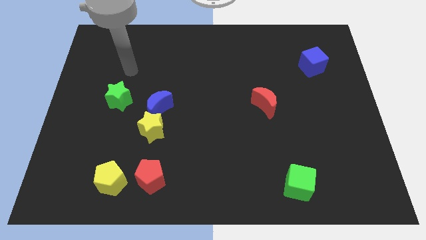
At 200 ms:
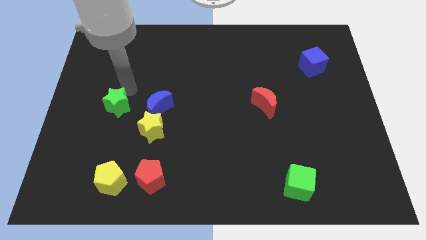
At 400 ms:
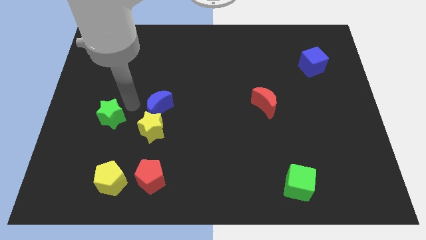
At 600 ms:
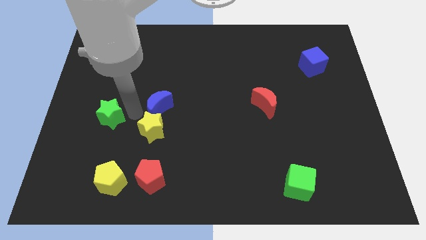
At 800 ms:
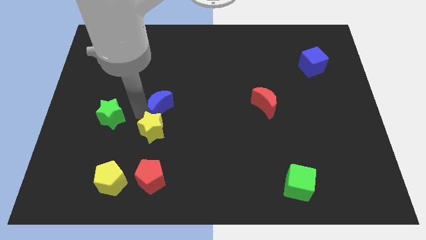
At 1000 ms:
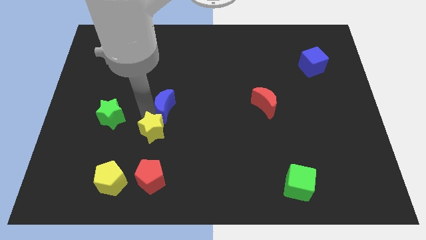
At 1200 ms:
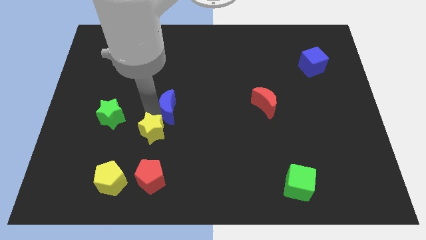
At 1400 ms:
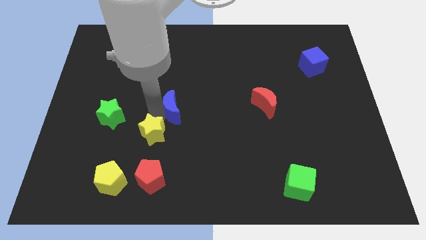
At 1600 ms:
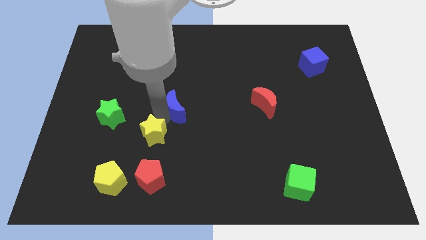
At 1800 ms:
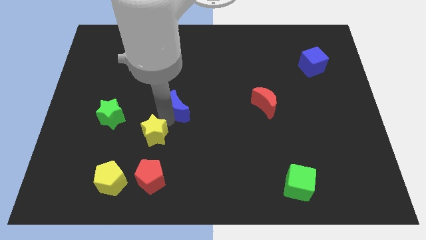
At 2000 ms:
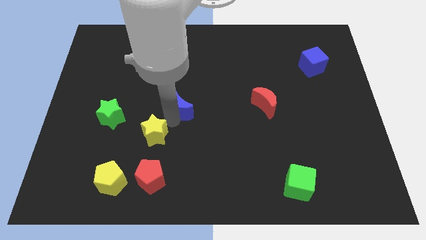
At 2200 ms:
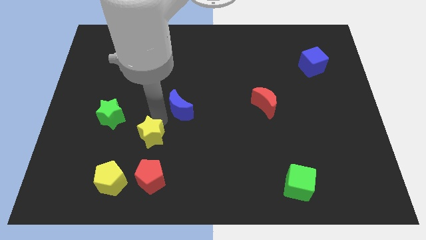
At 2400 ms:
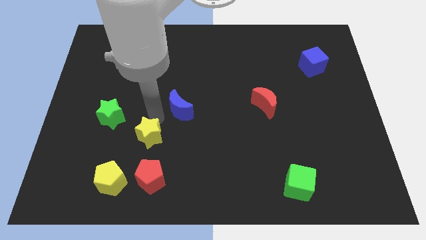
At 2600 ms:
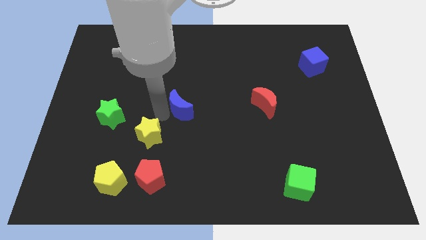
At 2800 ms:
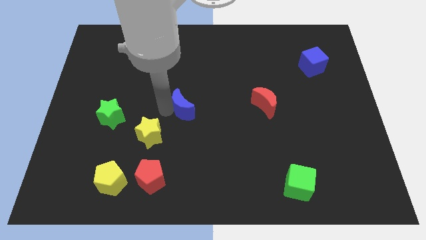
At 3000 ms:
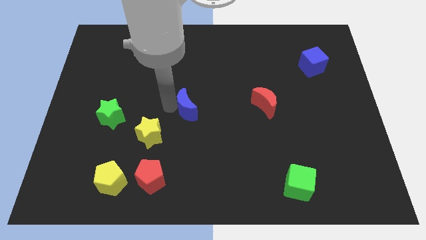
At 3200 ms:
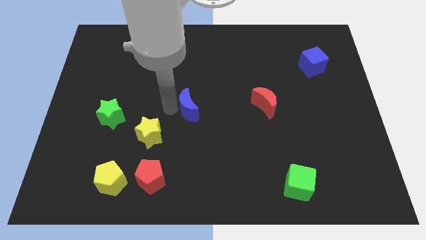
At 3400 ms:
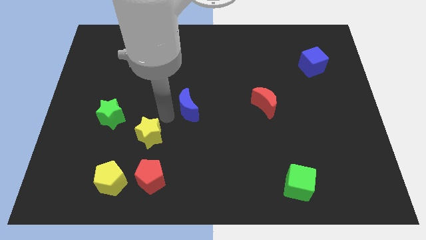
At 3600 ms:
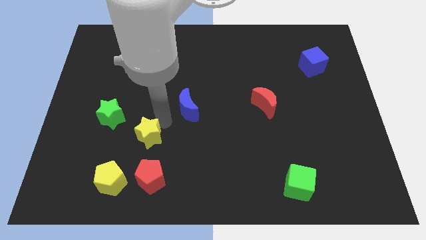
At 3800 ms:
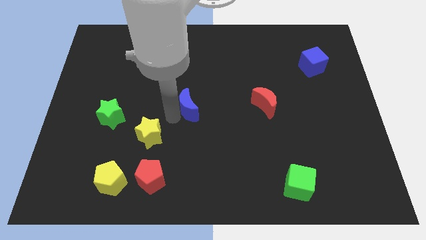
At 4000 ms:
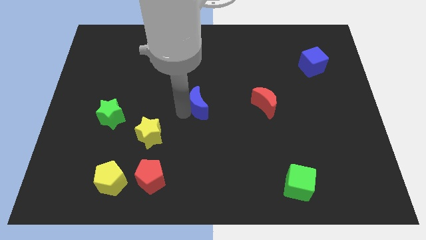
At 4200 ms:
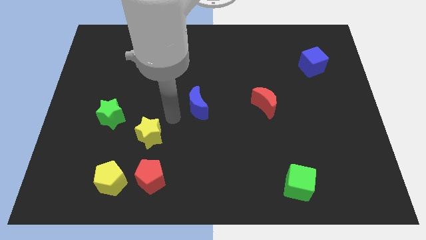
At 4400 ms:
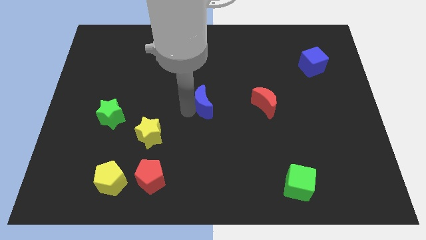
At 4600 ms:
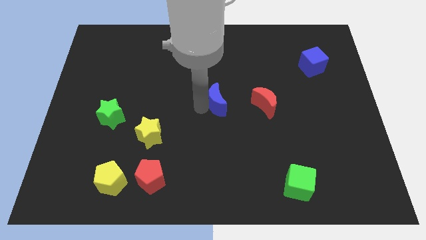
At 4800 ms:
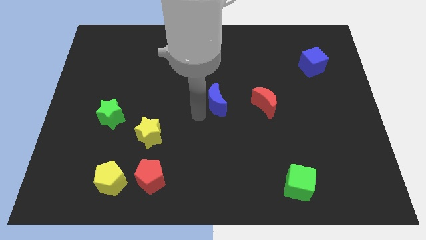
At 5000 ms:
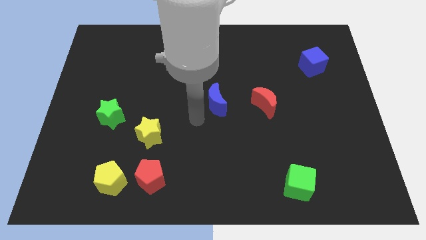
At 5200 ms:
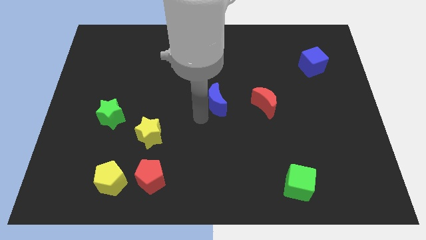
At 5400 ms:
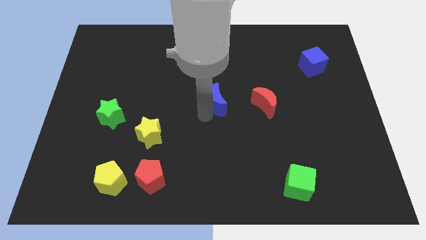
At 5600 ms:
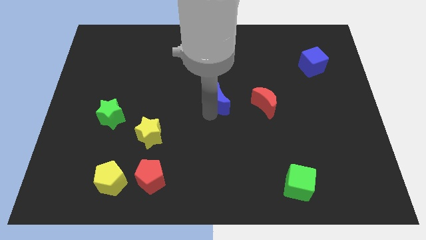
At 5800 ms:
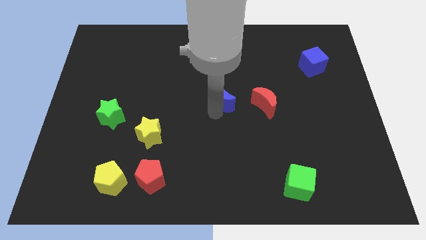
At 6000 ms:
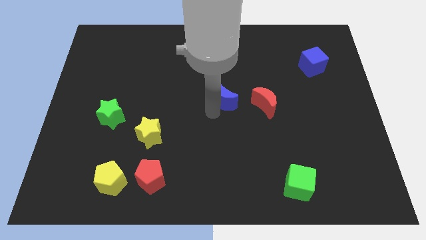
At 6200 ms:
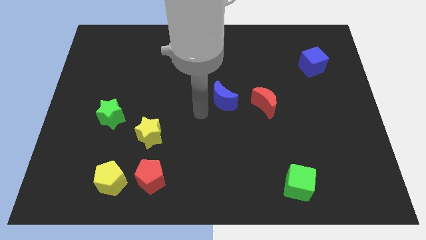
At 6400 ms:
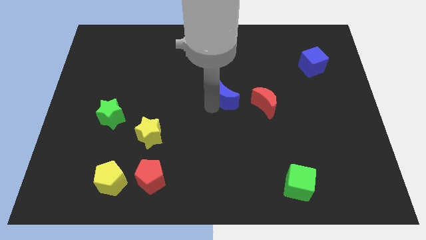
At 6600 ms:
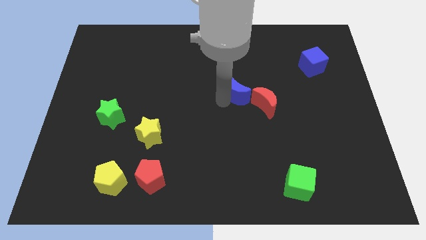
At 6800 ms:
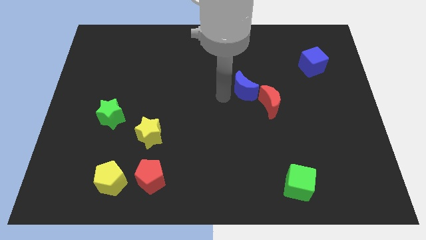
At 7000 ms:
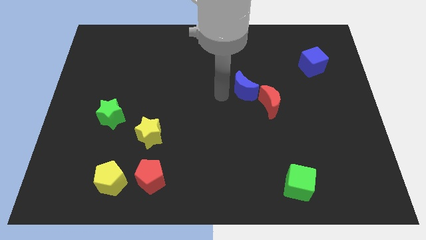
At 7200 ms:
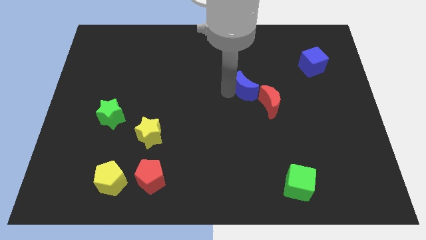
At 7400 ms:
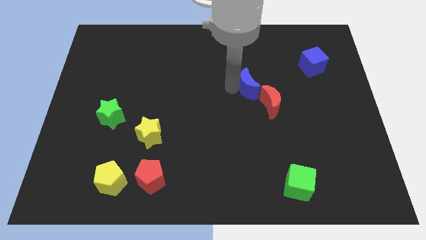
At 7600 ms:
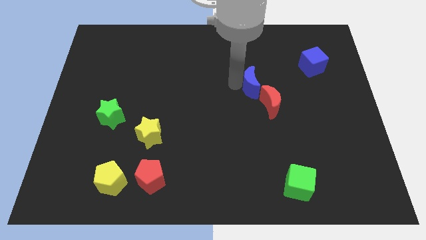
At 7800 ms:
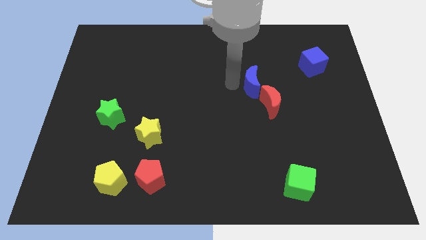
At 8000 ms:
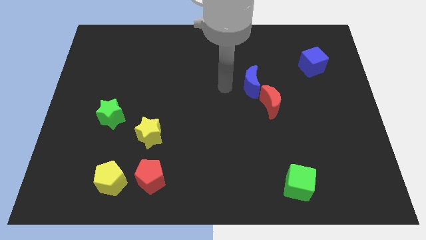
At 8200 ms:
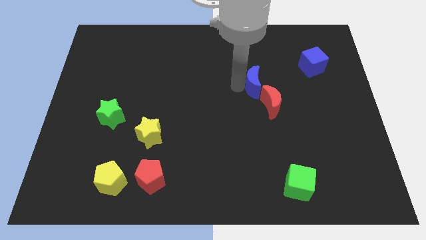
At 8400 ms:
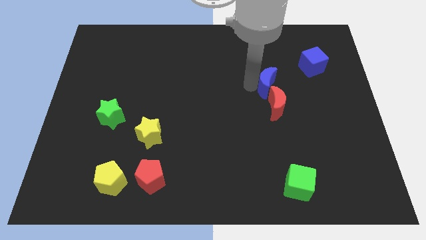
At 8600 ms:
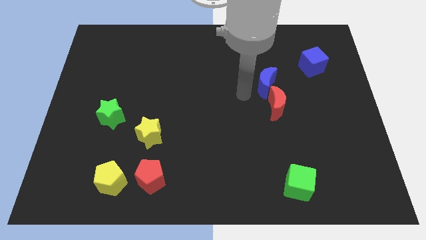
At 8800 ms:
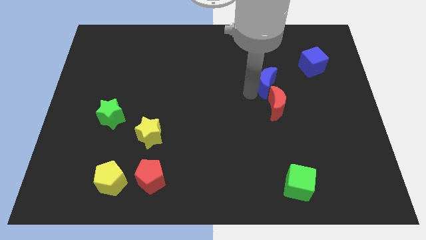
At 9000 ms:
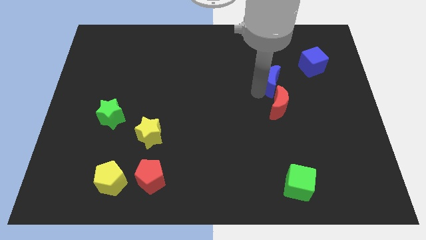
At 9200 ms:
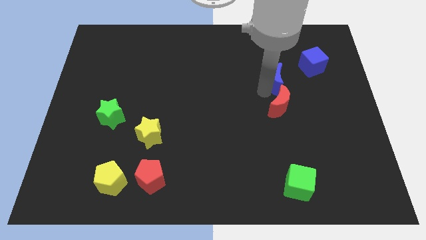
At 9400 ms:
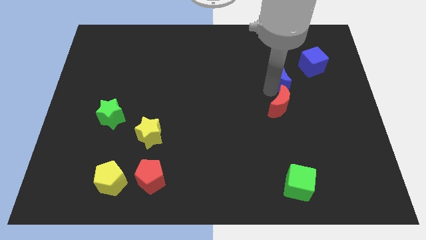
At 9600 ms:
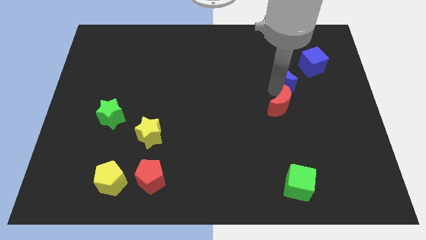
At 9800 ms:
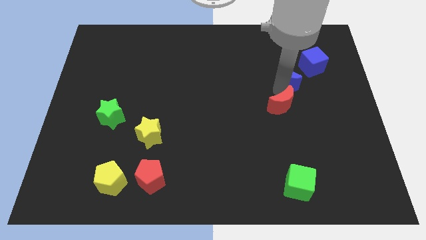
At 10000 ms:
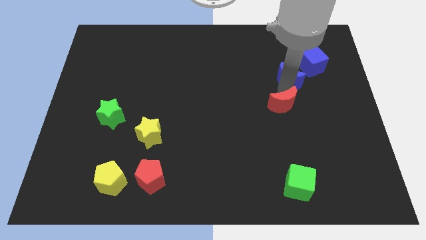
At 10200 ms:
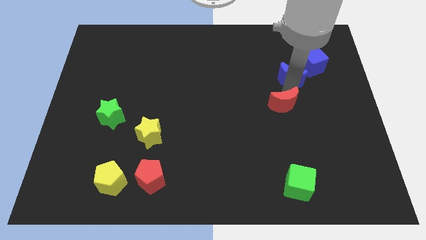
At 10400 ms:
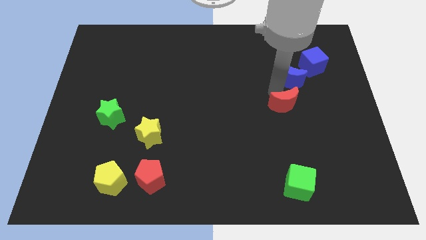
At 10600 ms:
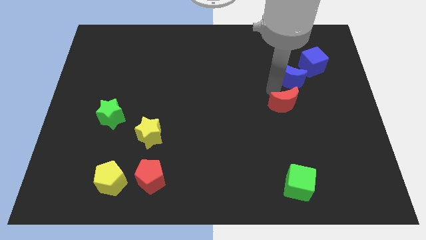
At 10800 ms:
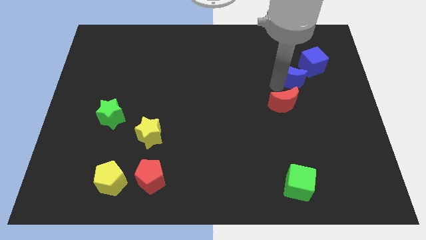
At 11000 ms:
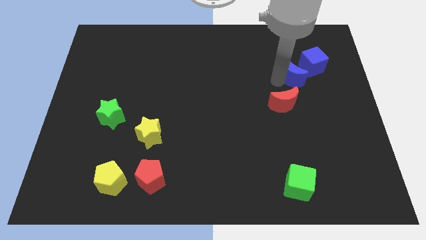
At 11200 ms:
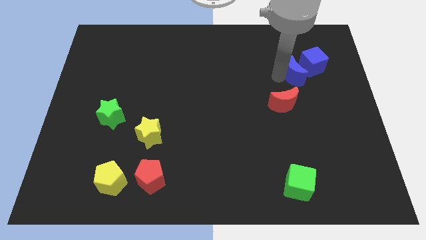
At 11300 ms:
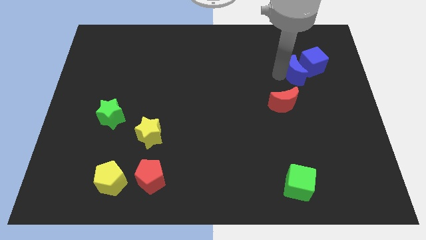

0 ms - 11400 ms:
slide the blue moon close to the blue cube

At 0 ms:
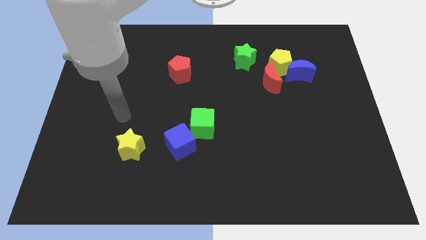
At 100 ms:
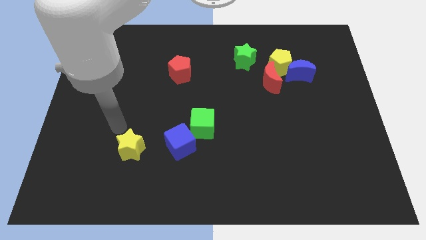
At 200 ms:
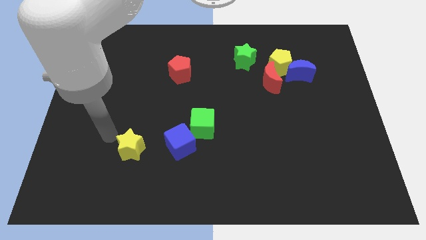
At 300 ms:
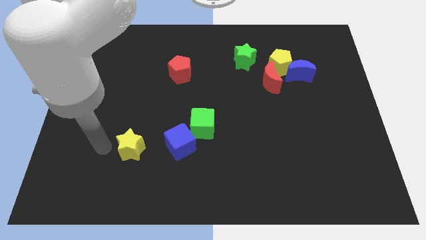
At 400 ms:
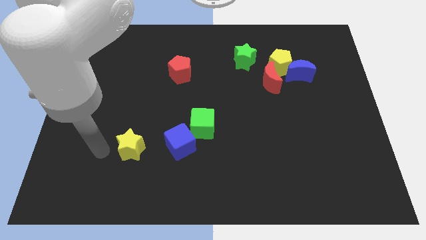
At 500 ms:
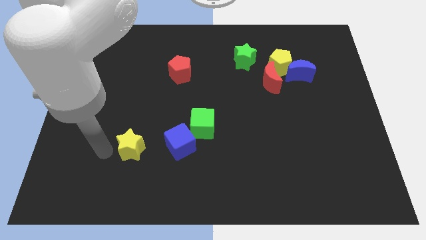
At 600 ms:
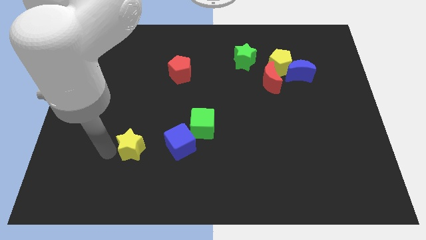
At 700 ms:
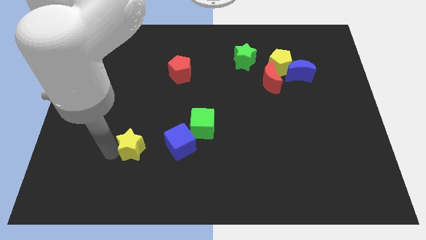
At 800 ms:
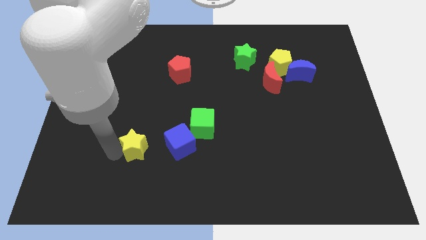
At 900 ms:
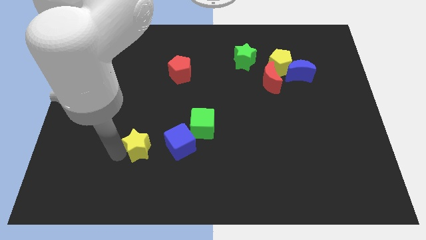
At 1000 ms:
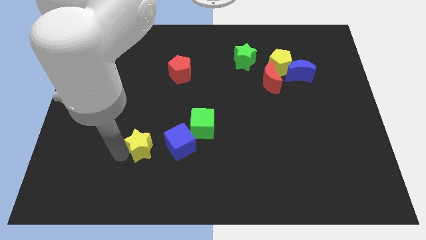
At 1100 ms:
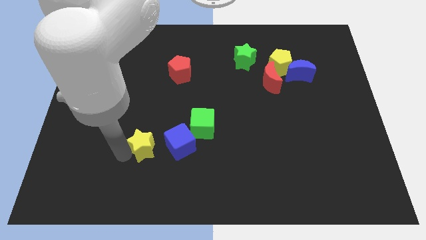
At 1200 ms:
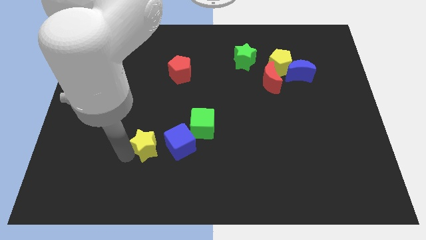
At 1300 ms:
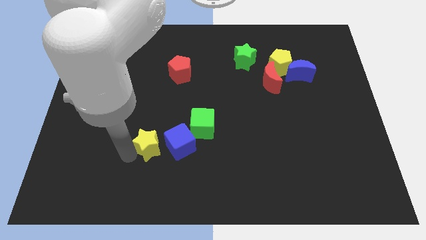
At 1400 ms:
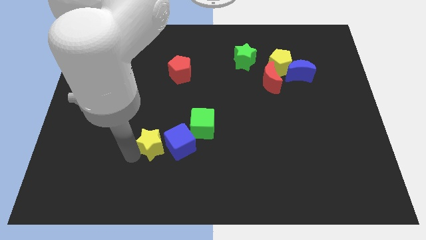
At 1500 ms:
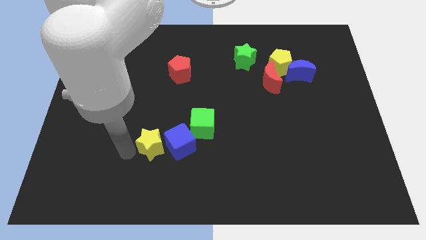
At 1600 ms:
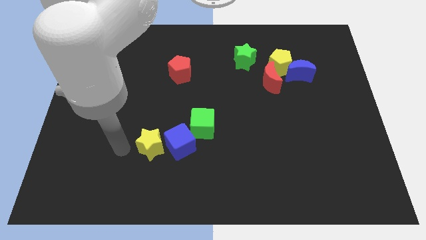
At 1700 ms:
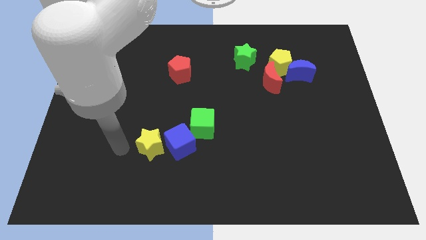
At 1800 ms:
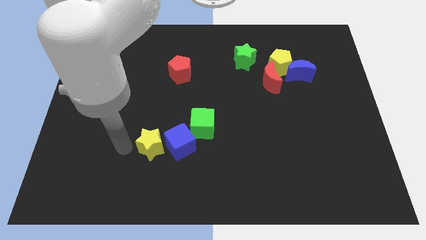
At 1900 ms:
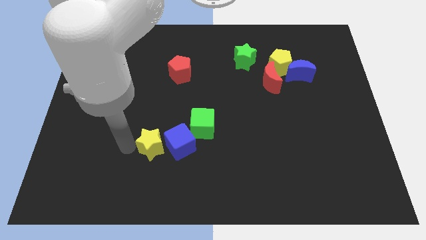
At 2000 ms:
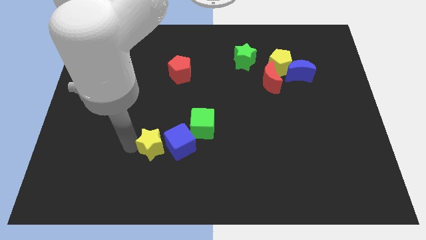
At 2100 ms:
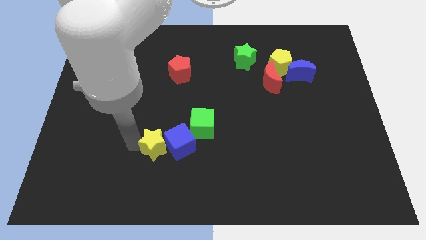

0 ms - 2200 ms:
push the yellow star towards the blue cube
